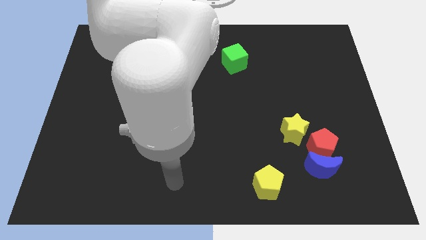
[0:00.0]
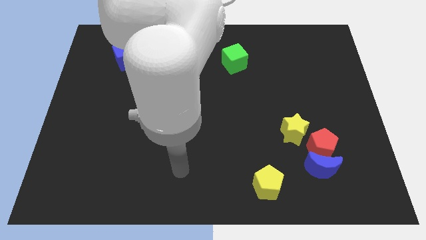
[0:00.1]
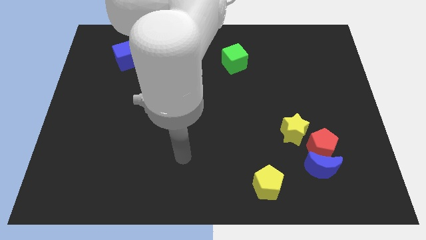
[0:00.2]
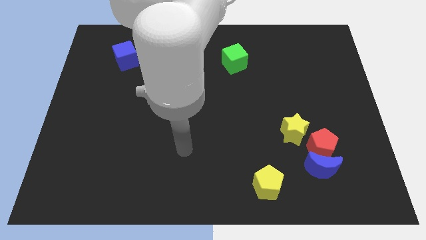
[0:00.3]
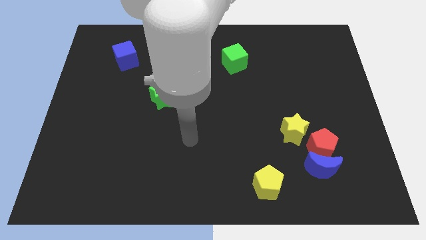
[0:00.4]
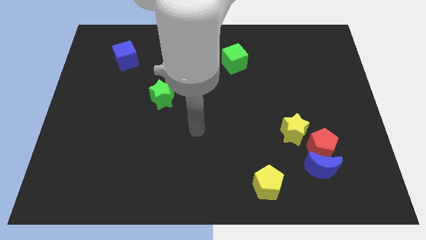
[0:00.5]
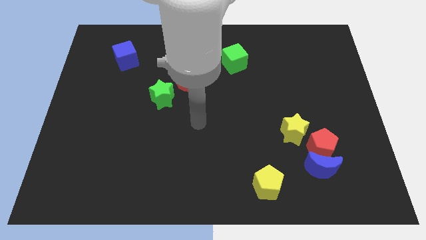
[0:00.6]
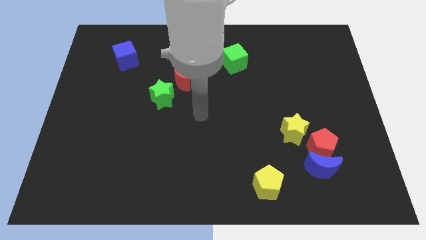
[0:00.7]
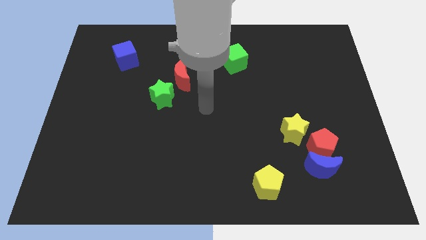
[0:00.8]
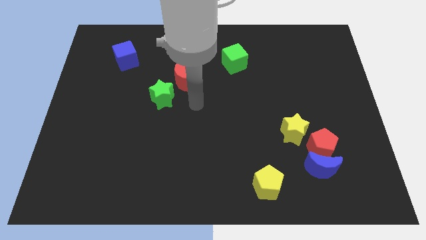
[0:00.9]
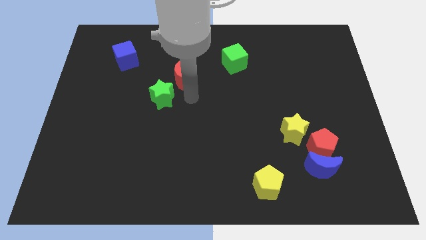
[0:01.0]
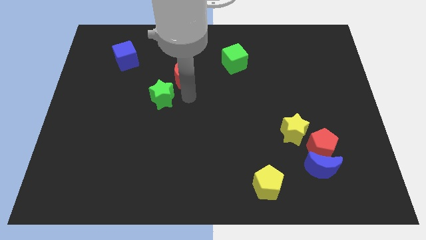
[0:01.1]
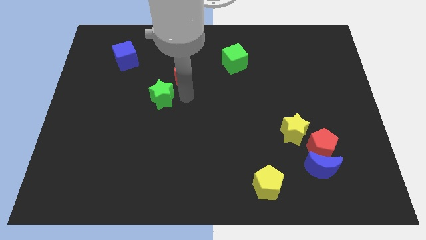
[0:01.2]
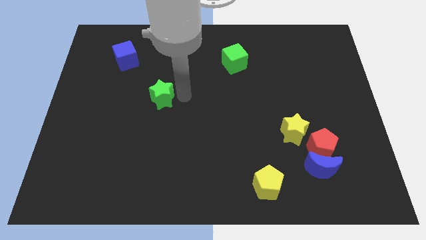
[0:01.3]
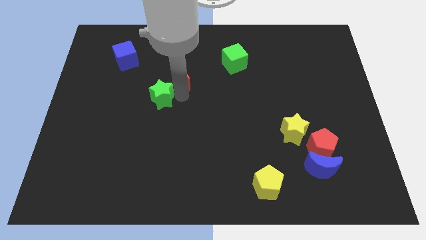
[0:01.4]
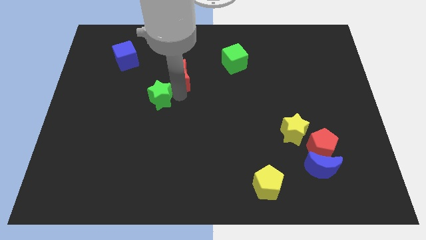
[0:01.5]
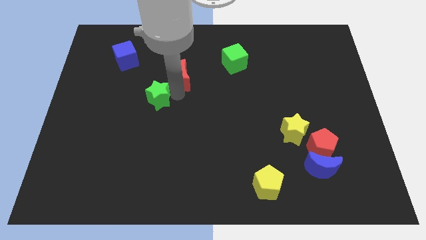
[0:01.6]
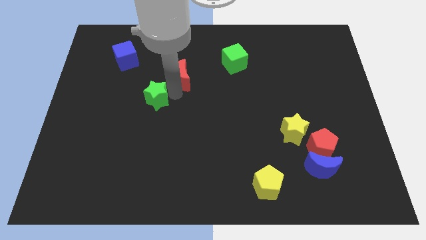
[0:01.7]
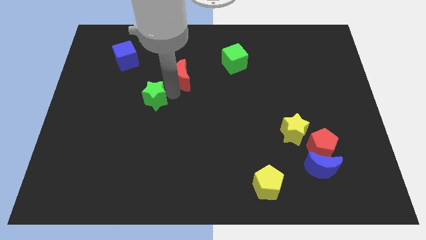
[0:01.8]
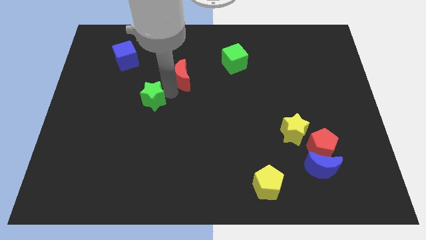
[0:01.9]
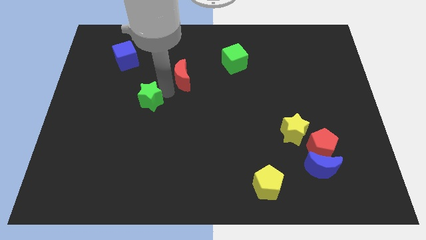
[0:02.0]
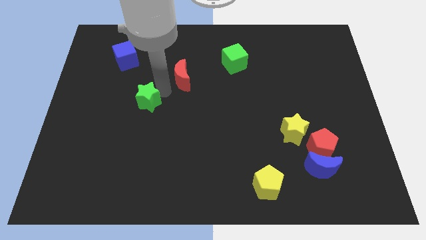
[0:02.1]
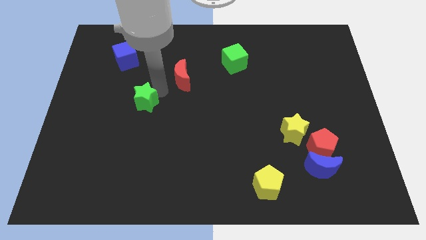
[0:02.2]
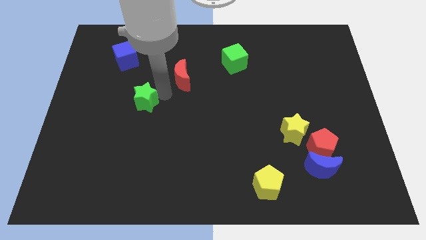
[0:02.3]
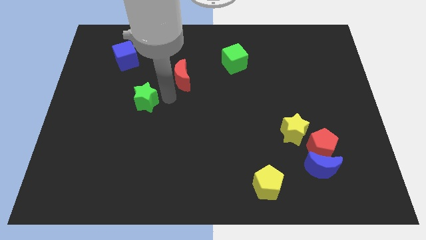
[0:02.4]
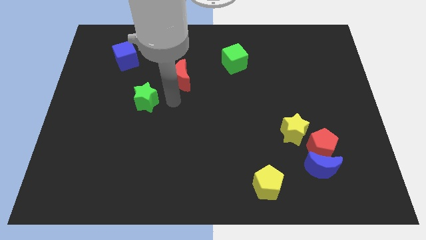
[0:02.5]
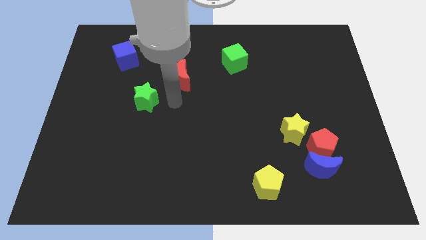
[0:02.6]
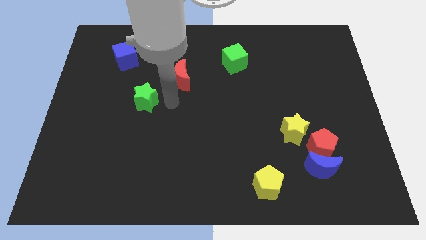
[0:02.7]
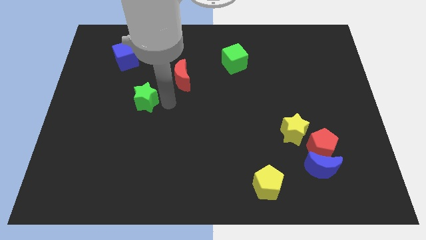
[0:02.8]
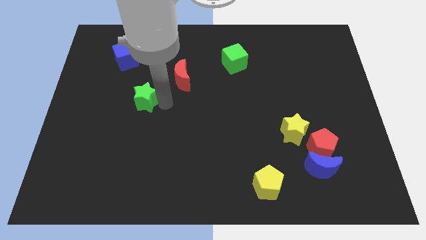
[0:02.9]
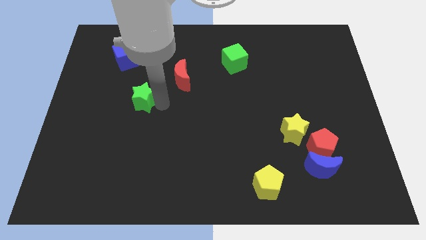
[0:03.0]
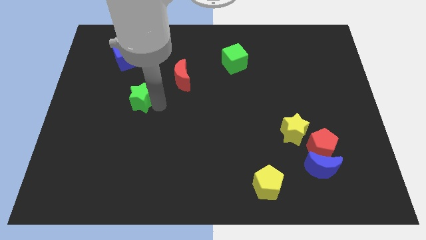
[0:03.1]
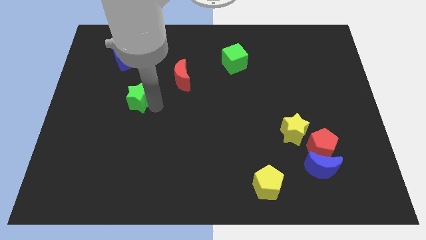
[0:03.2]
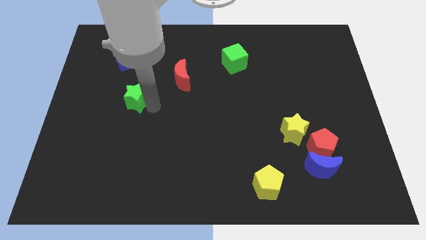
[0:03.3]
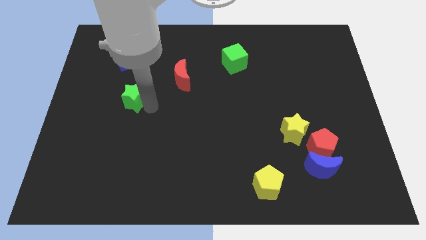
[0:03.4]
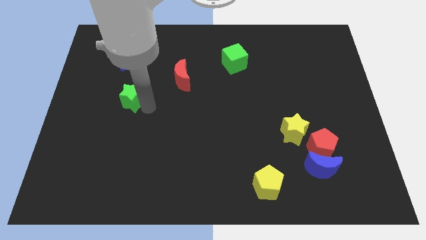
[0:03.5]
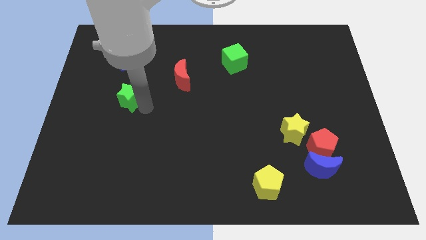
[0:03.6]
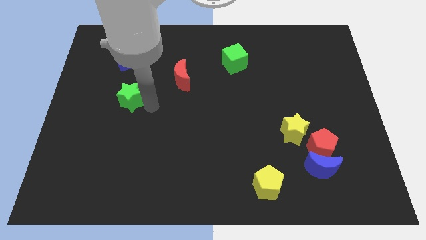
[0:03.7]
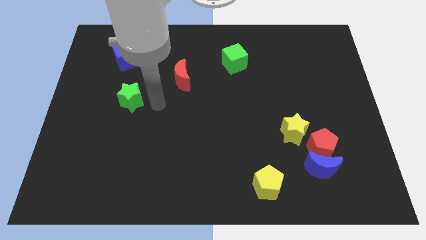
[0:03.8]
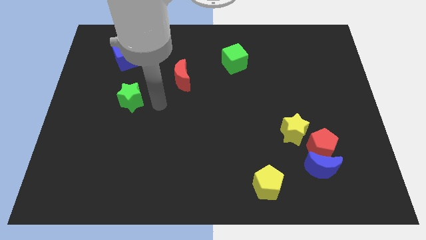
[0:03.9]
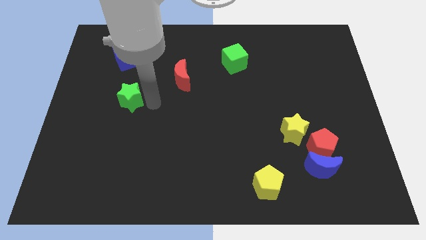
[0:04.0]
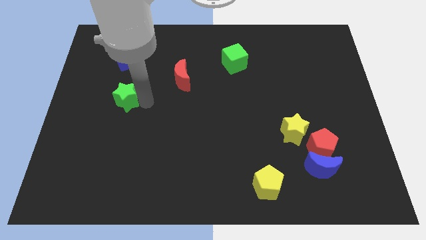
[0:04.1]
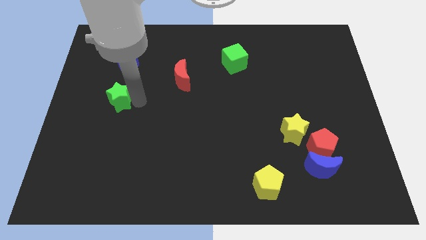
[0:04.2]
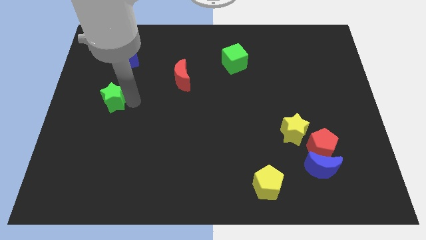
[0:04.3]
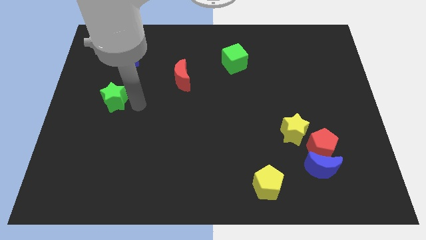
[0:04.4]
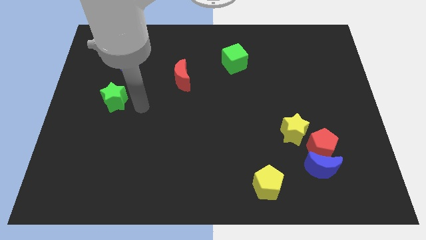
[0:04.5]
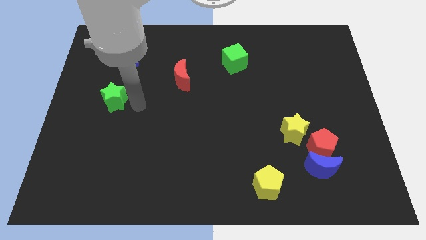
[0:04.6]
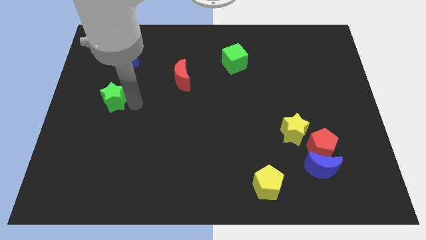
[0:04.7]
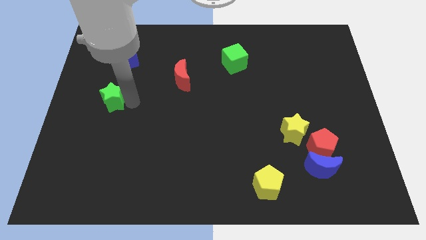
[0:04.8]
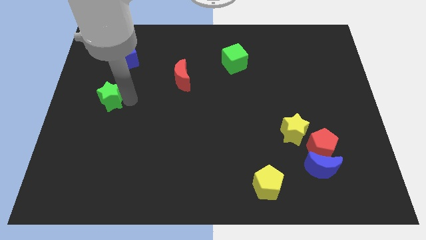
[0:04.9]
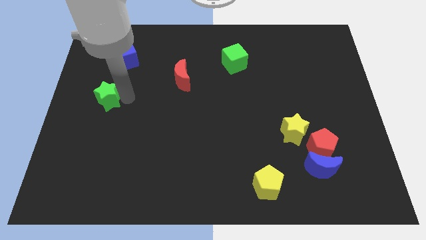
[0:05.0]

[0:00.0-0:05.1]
move the green star to the center left
